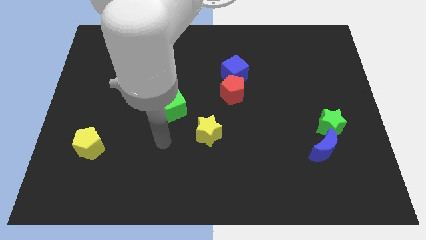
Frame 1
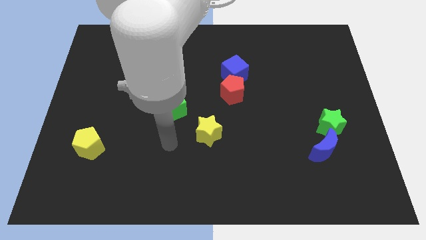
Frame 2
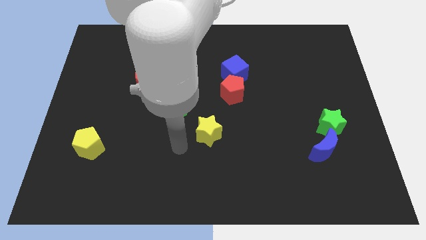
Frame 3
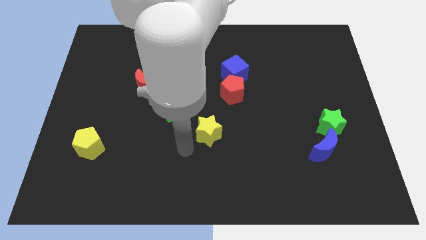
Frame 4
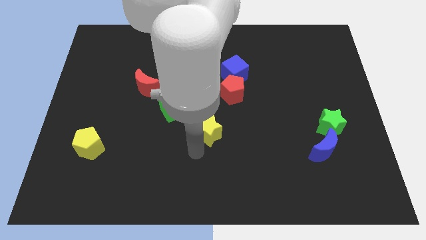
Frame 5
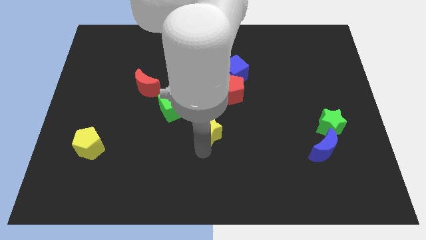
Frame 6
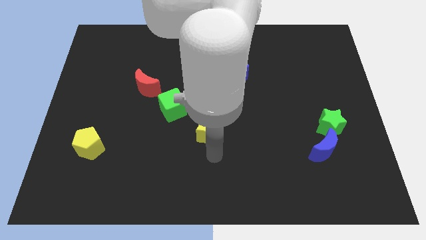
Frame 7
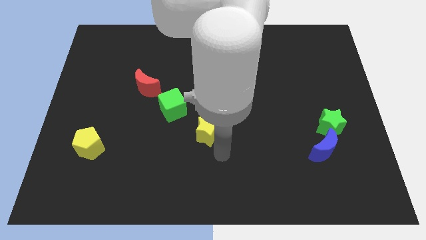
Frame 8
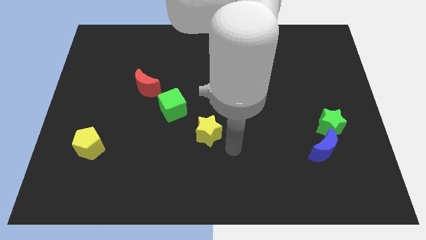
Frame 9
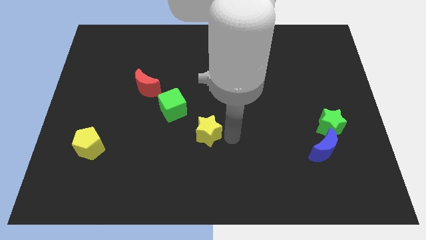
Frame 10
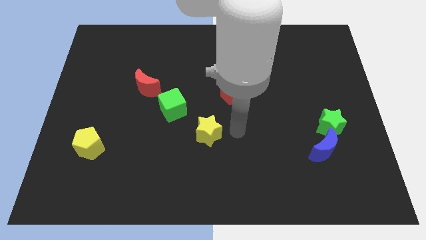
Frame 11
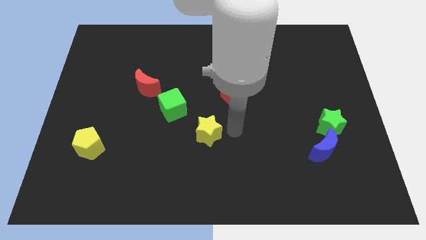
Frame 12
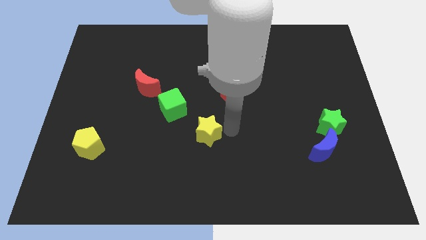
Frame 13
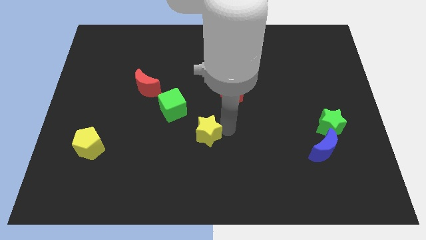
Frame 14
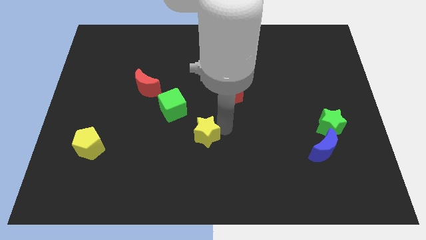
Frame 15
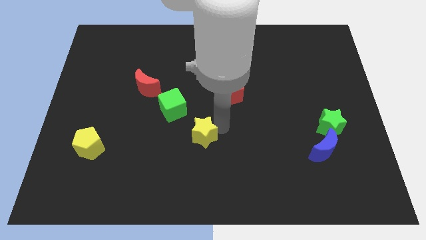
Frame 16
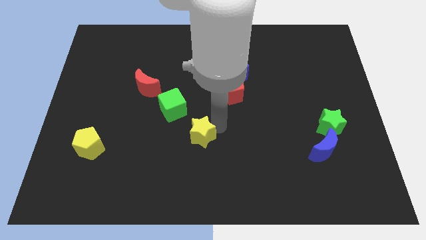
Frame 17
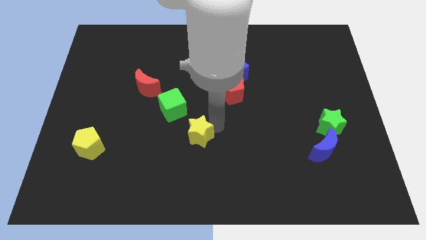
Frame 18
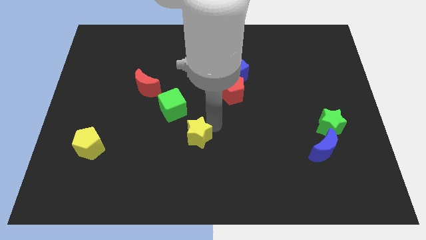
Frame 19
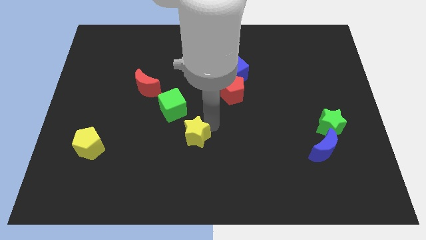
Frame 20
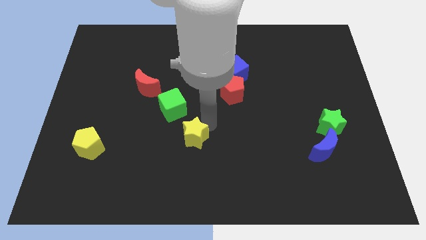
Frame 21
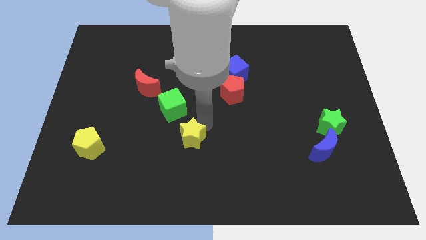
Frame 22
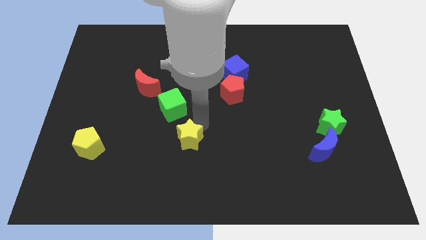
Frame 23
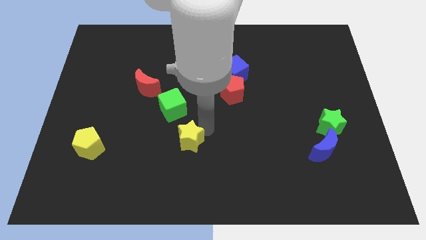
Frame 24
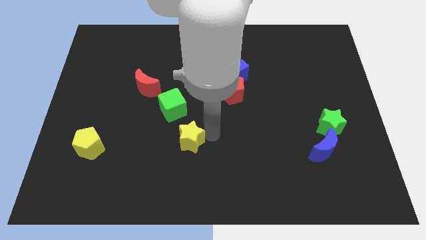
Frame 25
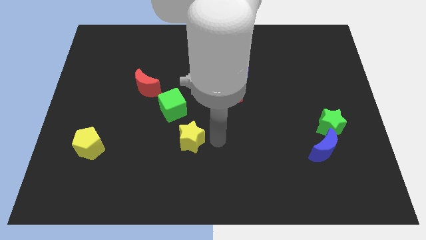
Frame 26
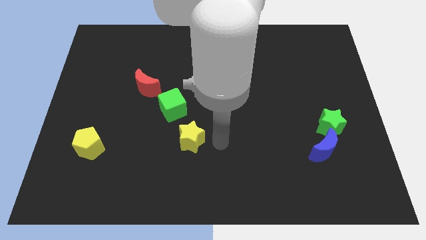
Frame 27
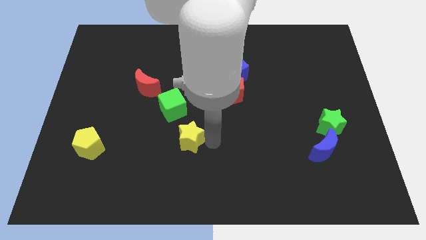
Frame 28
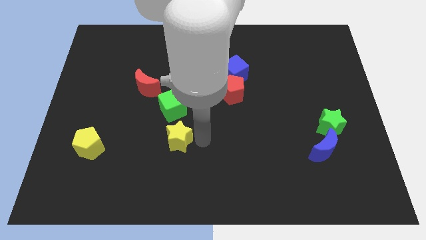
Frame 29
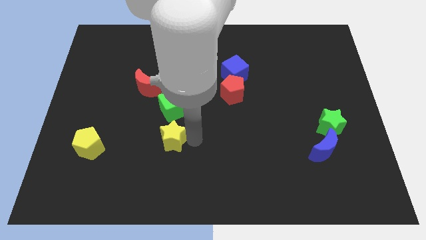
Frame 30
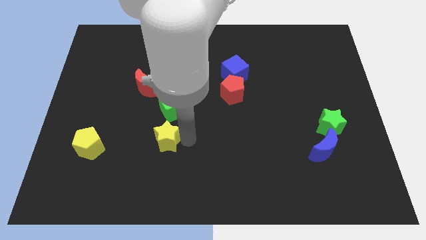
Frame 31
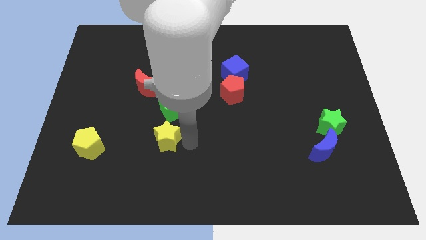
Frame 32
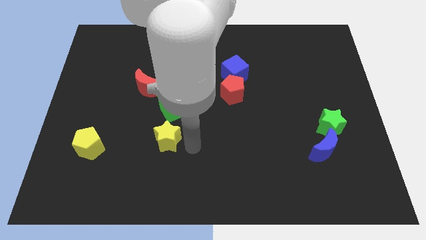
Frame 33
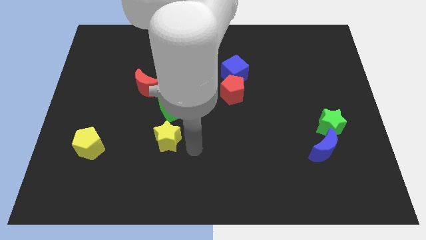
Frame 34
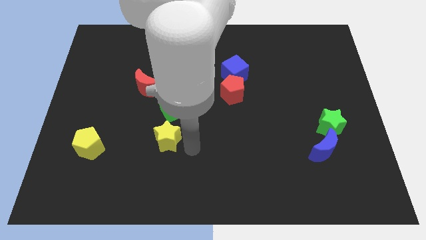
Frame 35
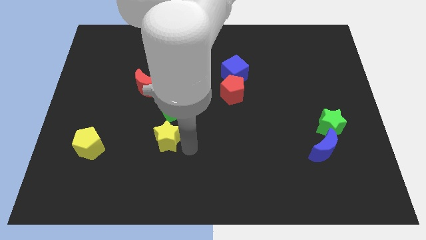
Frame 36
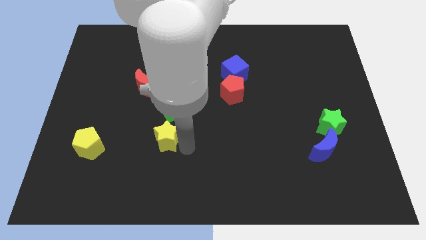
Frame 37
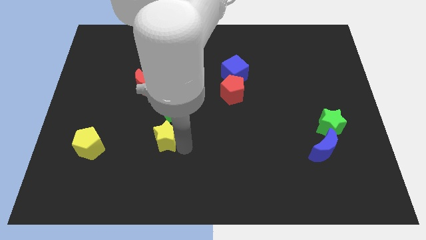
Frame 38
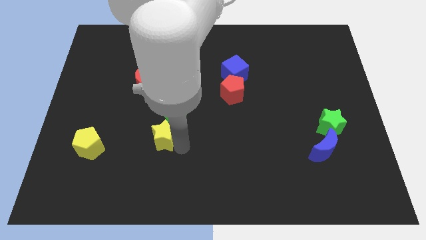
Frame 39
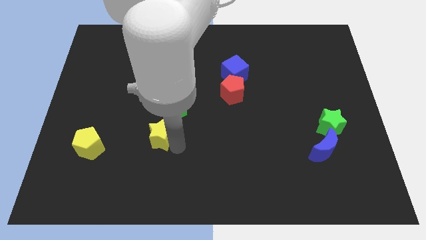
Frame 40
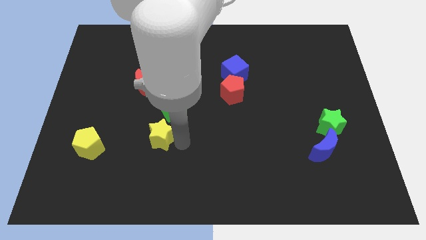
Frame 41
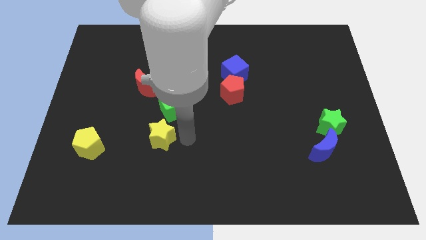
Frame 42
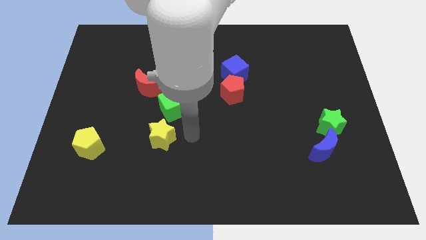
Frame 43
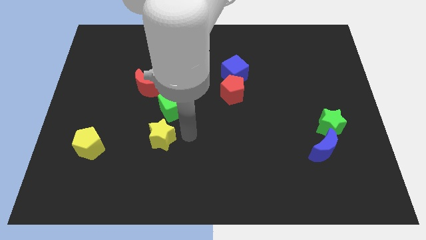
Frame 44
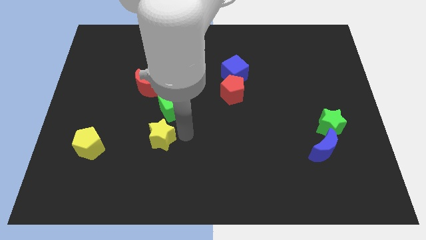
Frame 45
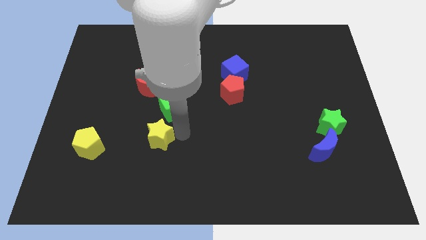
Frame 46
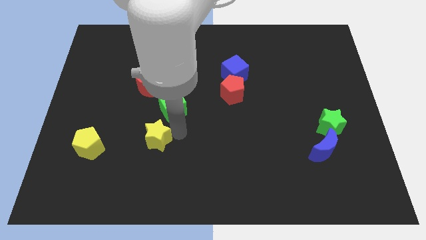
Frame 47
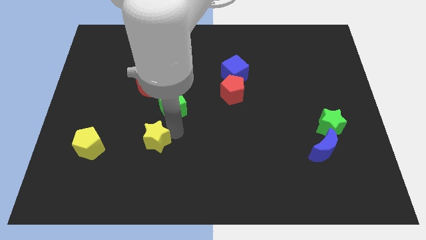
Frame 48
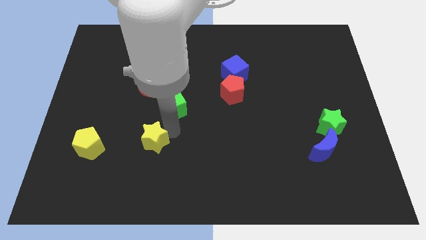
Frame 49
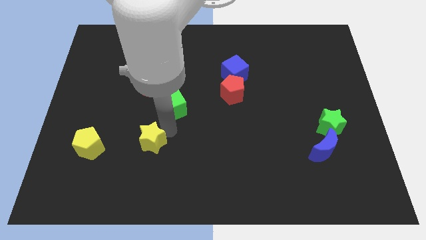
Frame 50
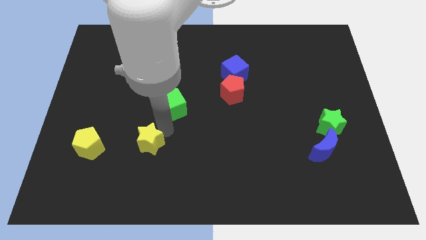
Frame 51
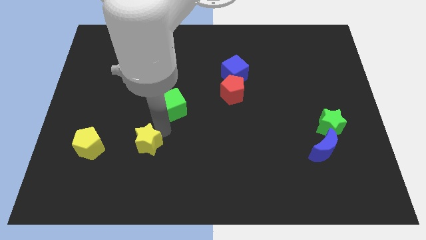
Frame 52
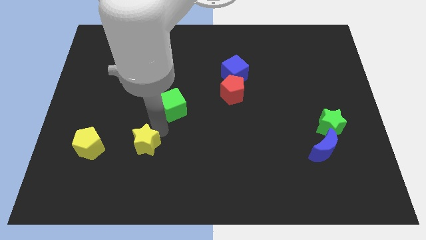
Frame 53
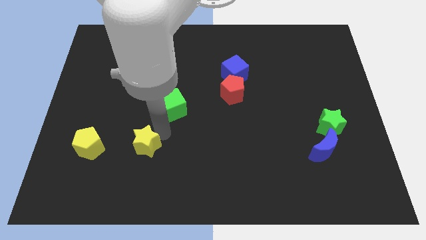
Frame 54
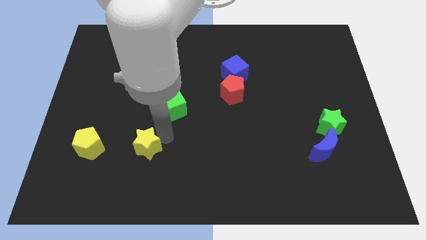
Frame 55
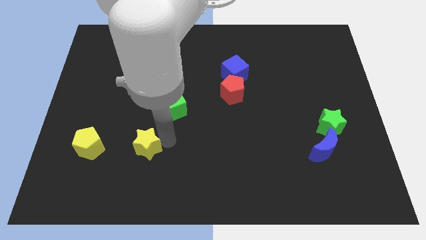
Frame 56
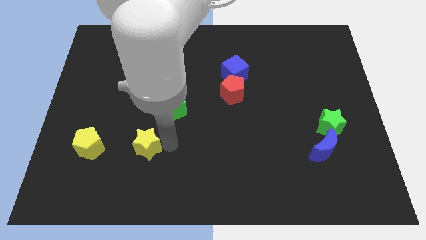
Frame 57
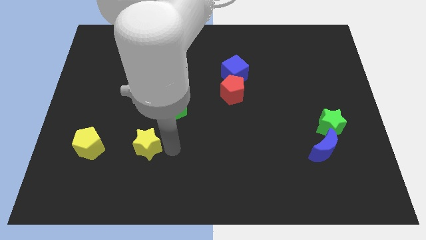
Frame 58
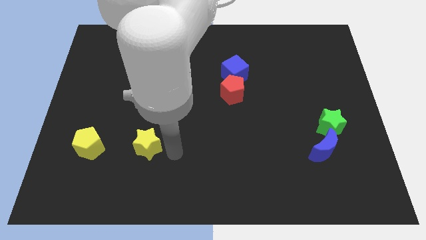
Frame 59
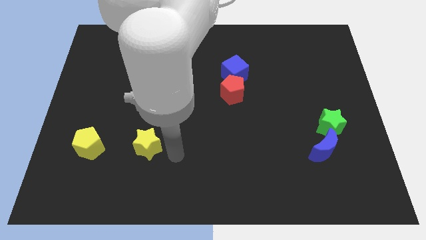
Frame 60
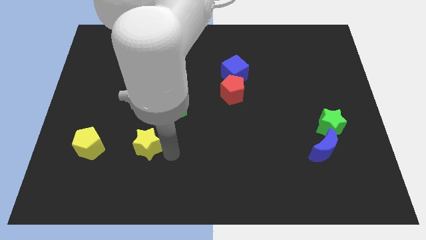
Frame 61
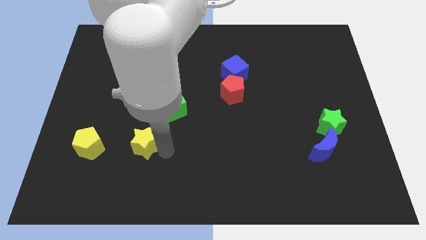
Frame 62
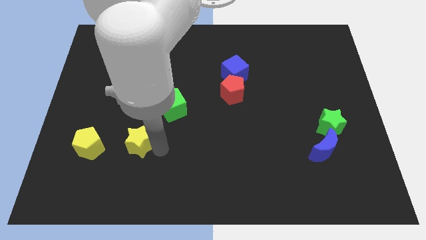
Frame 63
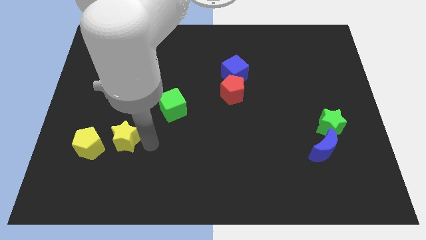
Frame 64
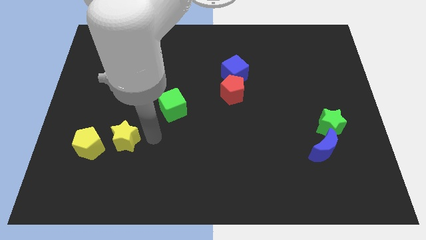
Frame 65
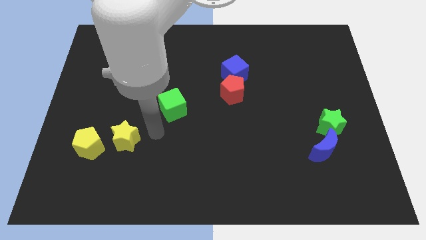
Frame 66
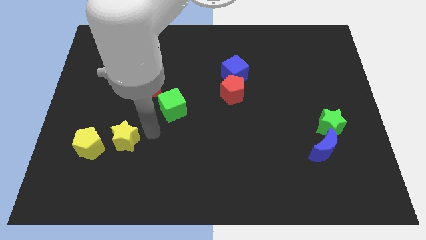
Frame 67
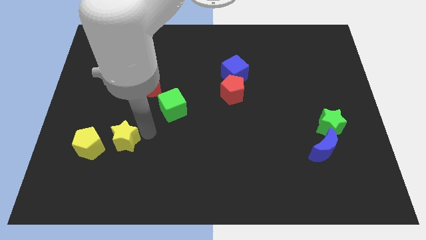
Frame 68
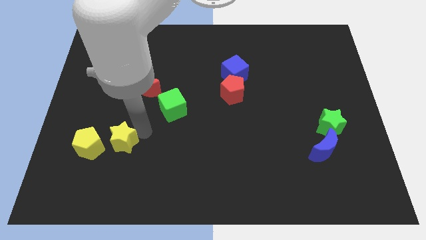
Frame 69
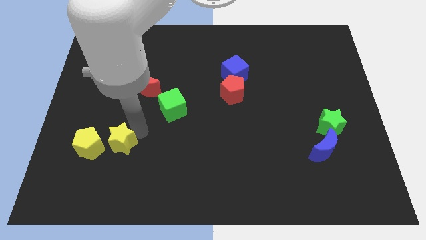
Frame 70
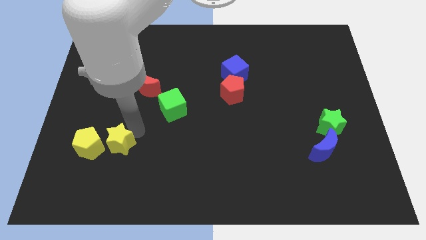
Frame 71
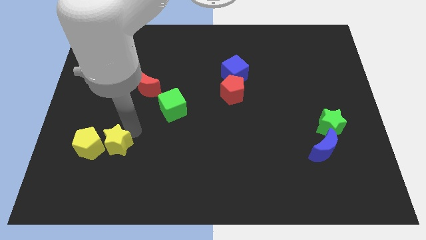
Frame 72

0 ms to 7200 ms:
slide the yellow star to the yellow pentagon
